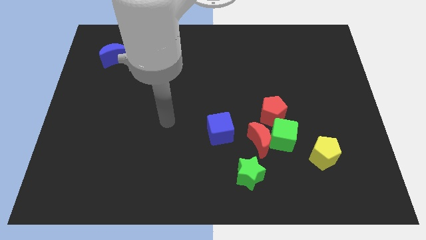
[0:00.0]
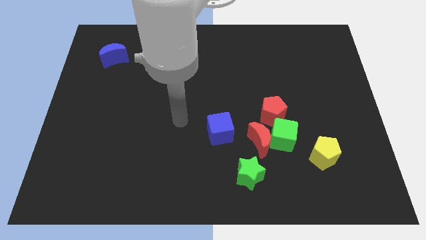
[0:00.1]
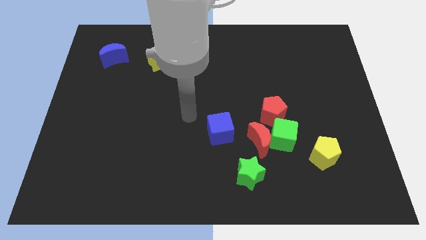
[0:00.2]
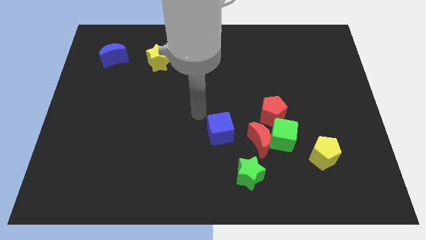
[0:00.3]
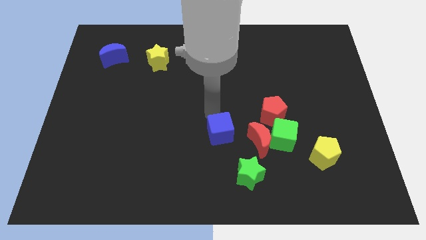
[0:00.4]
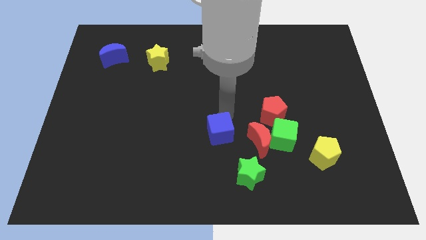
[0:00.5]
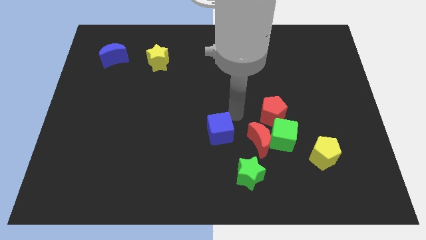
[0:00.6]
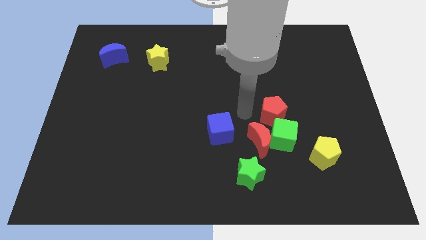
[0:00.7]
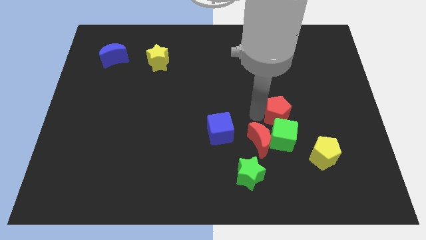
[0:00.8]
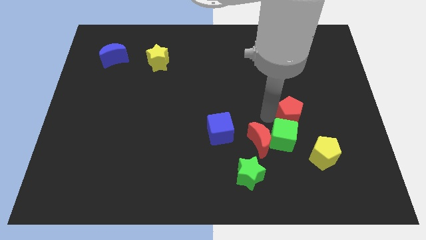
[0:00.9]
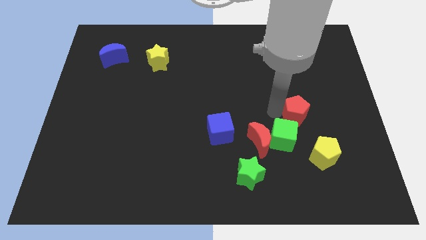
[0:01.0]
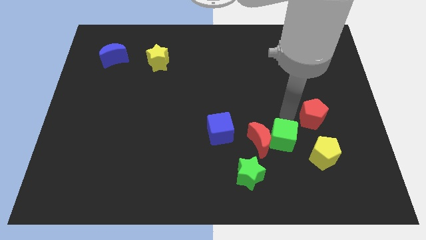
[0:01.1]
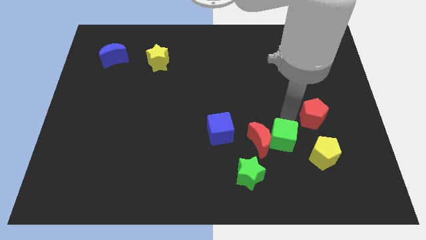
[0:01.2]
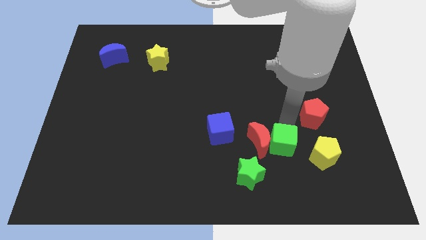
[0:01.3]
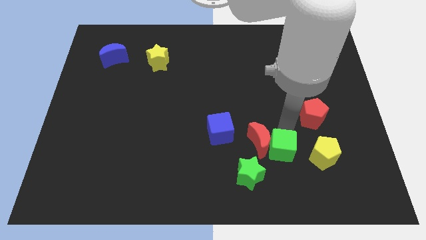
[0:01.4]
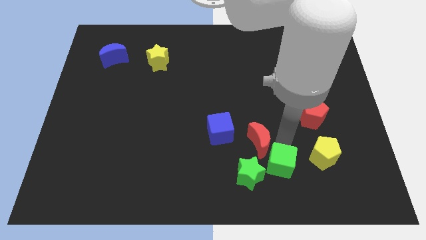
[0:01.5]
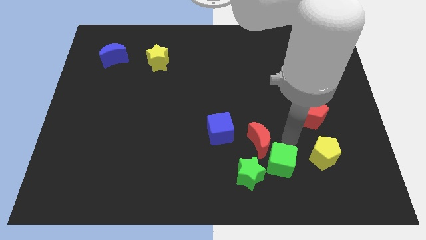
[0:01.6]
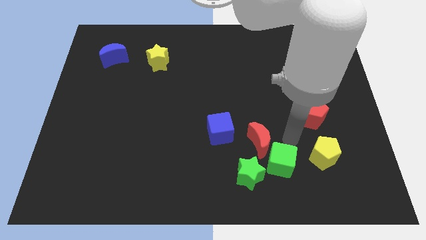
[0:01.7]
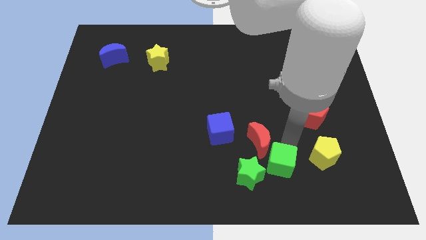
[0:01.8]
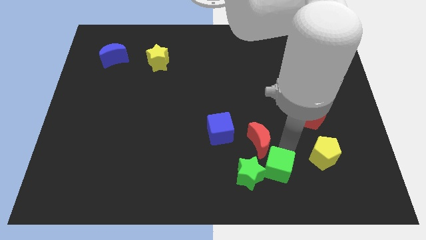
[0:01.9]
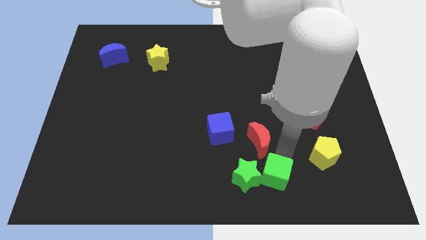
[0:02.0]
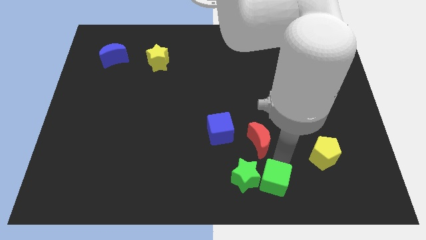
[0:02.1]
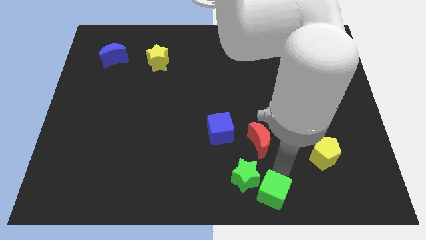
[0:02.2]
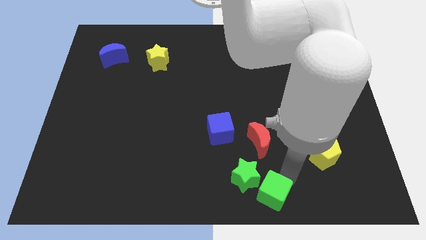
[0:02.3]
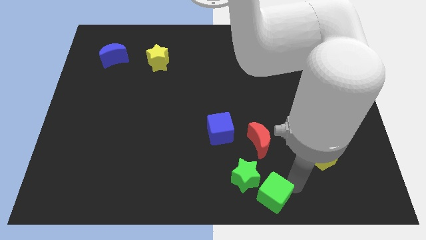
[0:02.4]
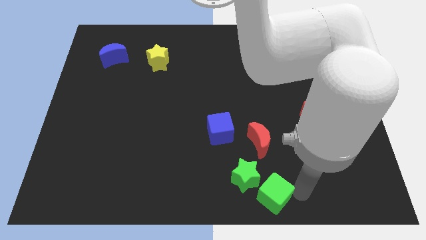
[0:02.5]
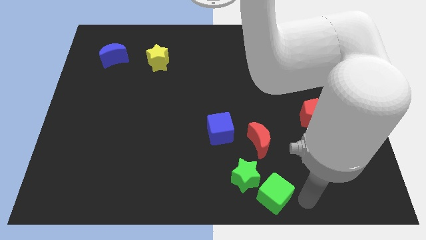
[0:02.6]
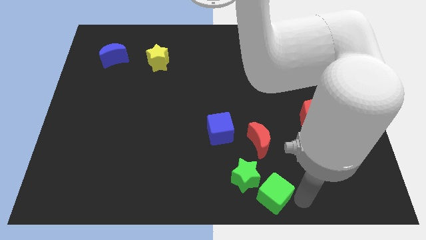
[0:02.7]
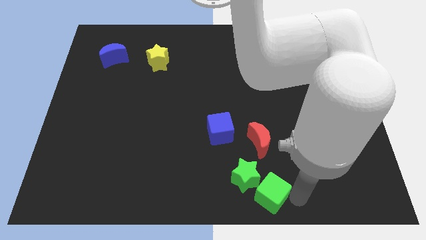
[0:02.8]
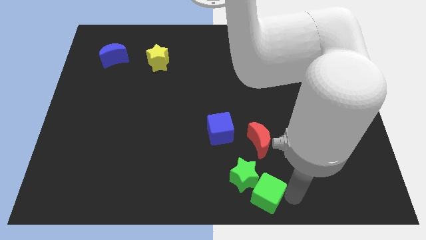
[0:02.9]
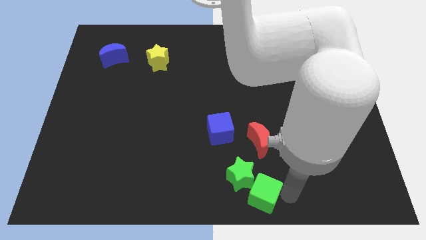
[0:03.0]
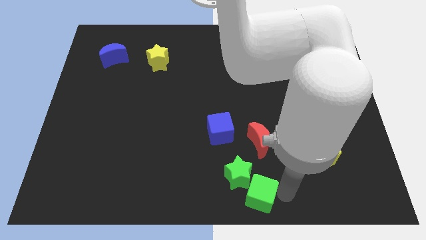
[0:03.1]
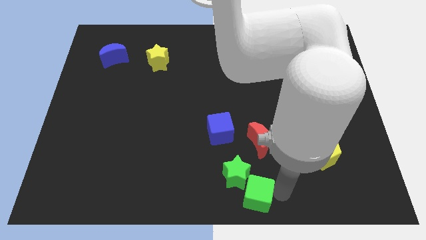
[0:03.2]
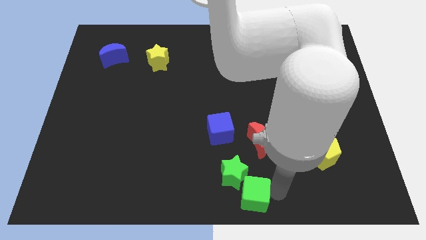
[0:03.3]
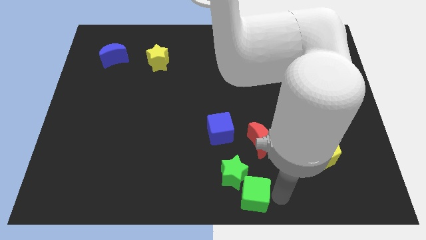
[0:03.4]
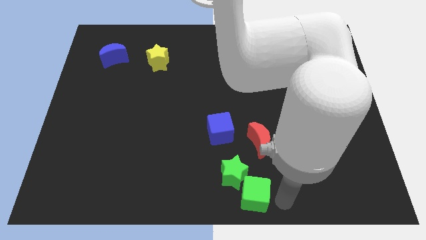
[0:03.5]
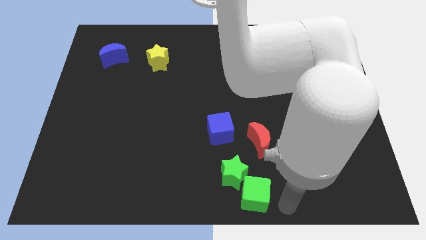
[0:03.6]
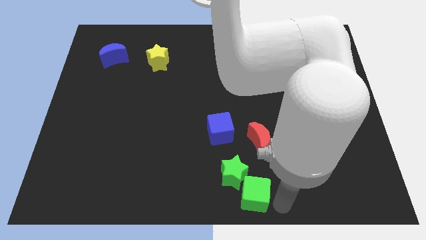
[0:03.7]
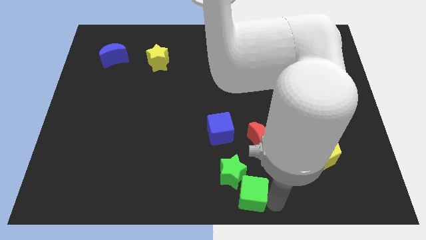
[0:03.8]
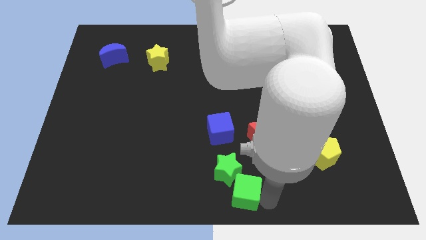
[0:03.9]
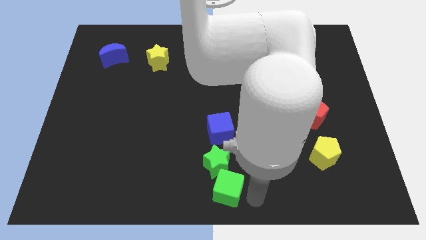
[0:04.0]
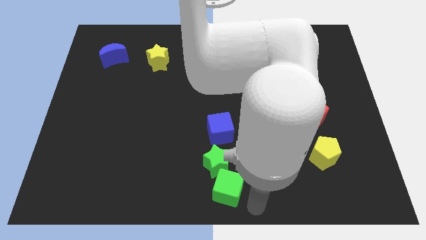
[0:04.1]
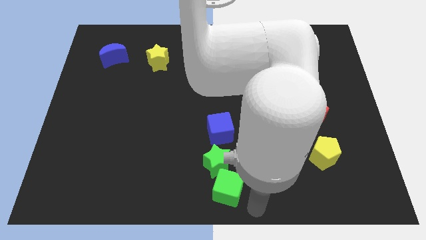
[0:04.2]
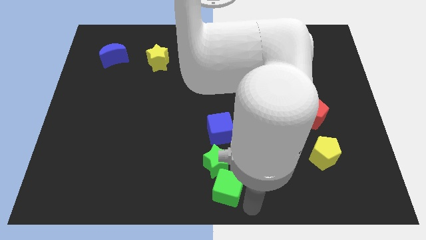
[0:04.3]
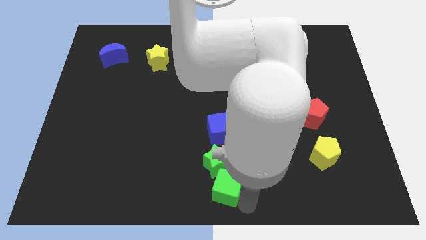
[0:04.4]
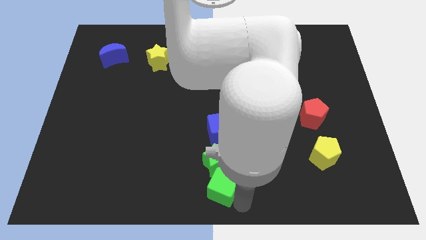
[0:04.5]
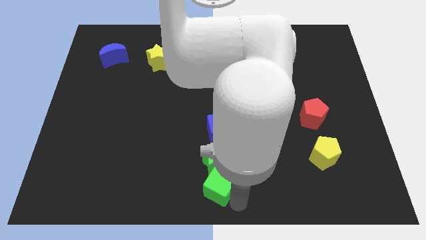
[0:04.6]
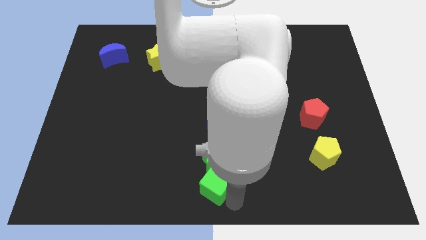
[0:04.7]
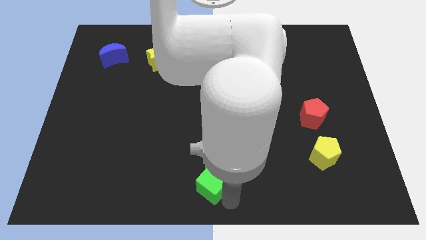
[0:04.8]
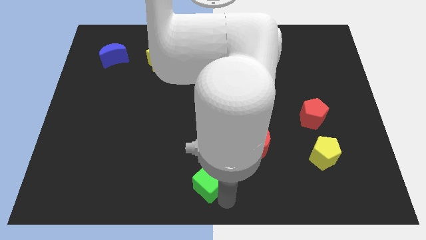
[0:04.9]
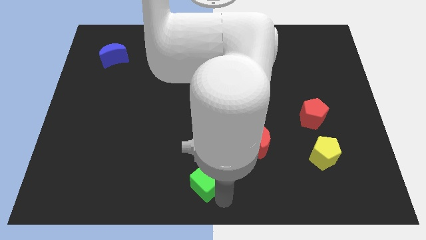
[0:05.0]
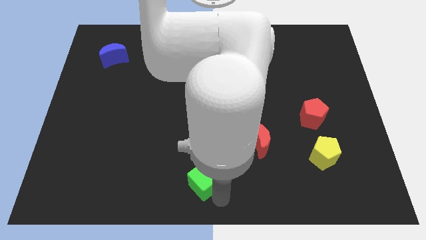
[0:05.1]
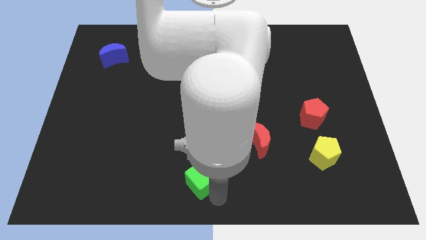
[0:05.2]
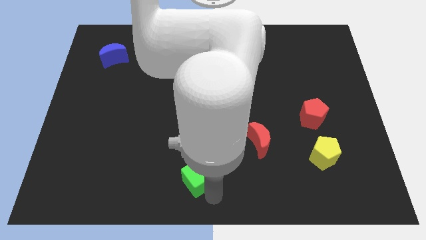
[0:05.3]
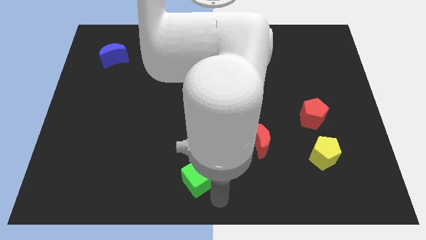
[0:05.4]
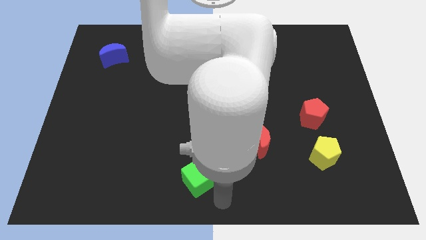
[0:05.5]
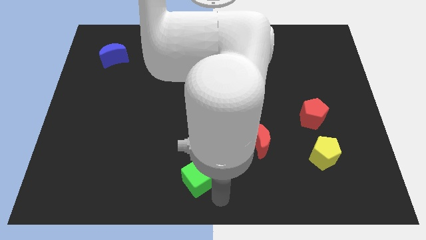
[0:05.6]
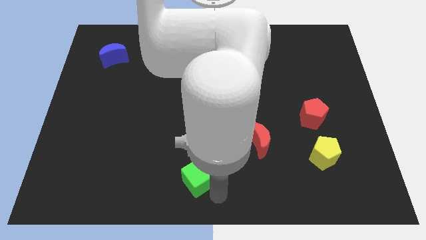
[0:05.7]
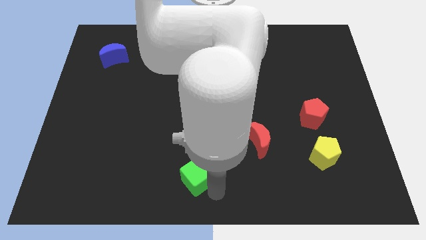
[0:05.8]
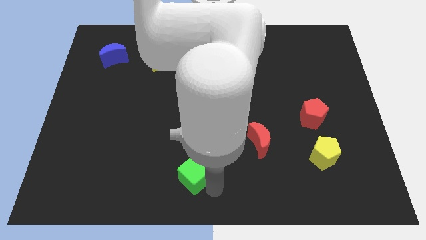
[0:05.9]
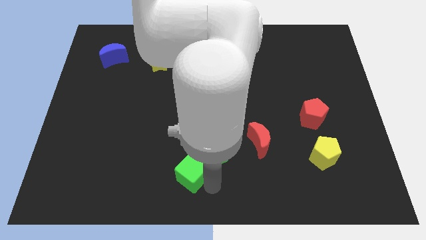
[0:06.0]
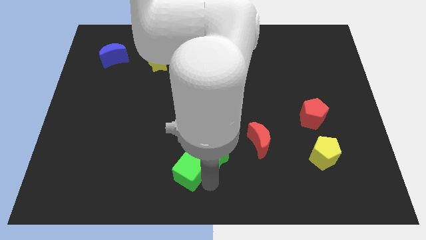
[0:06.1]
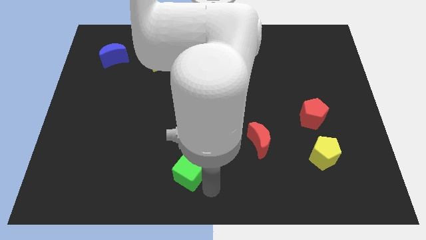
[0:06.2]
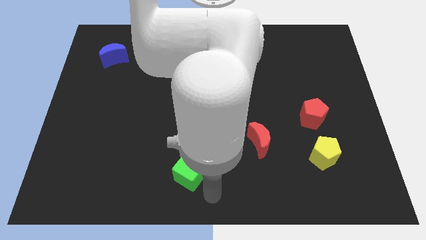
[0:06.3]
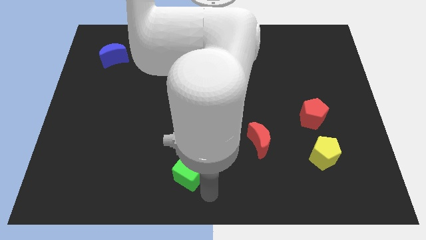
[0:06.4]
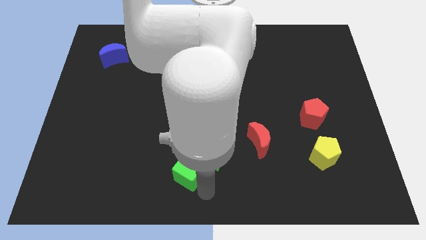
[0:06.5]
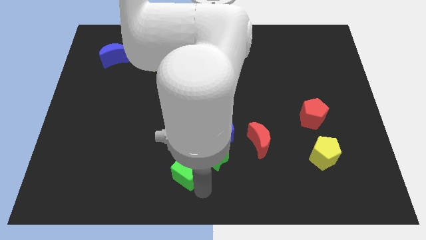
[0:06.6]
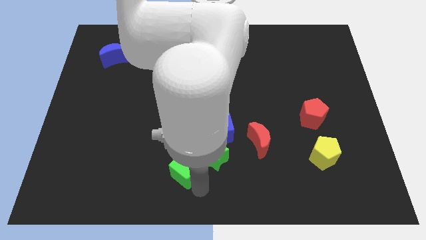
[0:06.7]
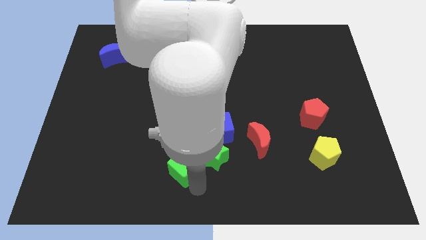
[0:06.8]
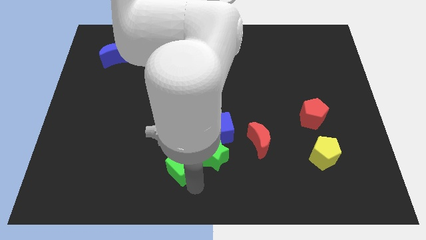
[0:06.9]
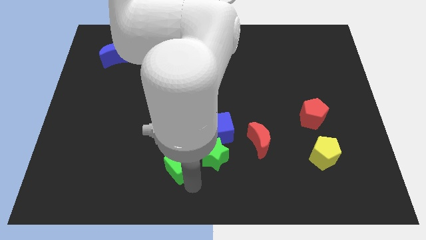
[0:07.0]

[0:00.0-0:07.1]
slide the green cube left

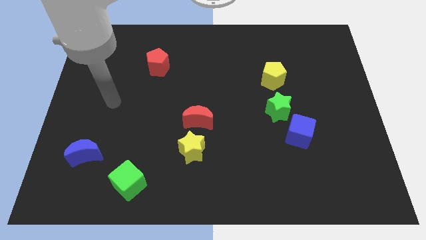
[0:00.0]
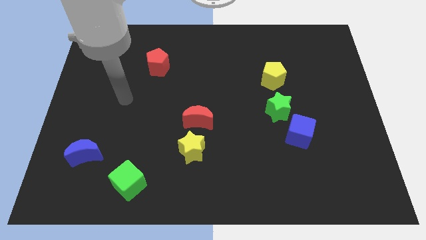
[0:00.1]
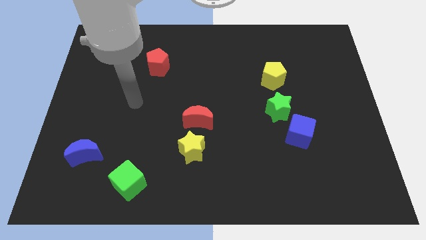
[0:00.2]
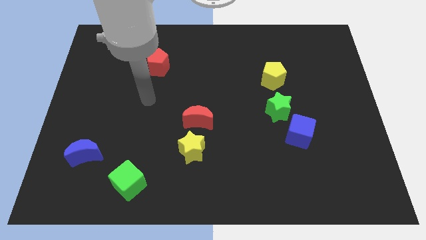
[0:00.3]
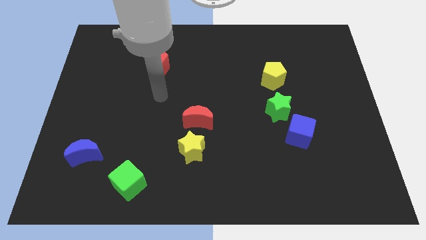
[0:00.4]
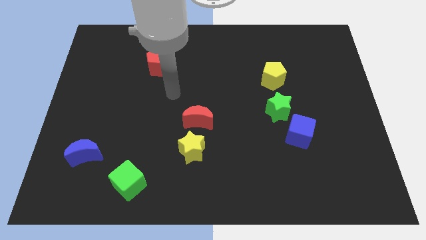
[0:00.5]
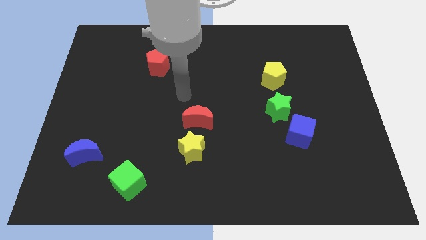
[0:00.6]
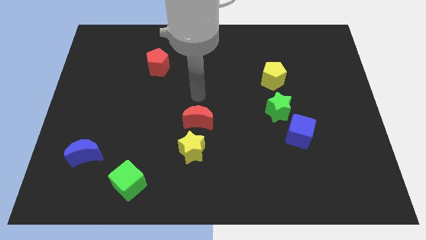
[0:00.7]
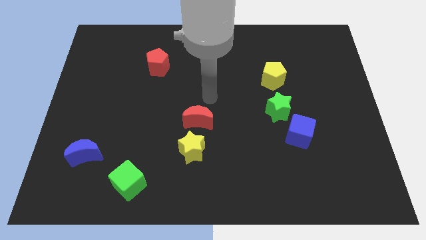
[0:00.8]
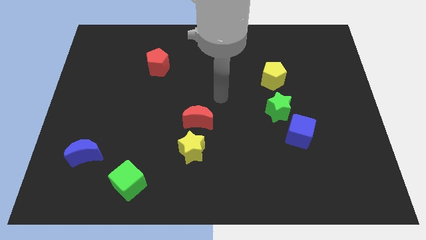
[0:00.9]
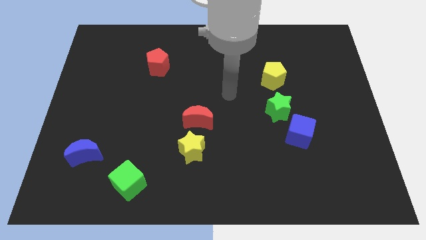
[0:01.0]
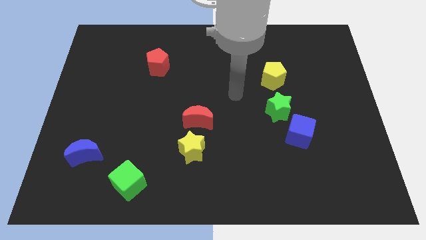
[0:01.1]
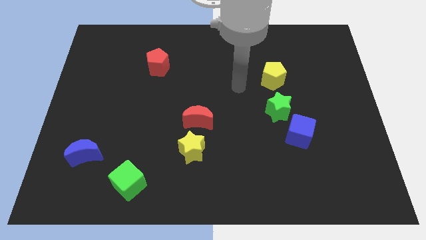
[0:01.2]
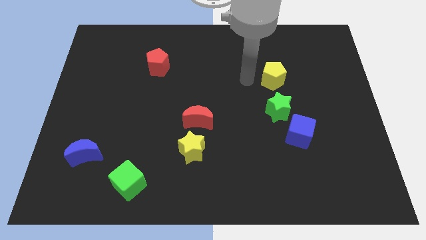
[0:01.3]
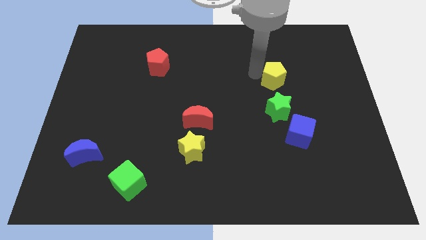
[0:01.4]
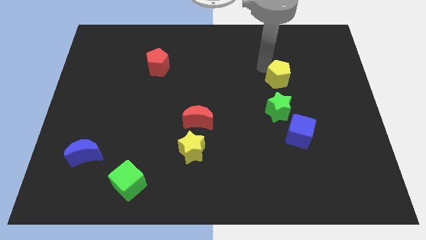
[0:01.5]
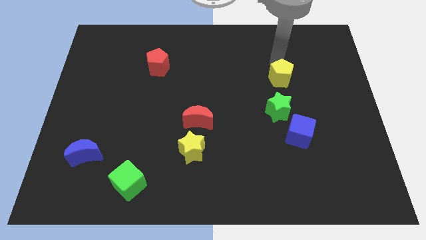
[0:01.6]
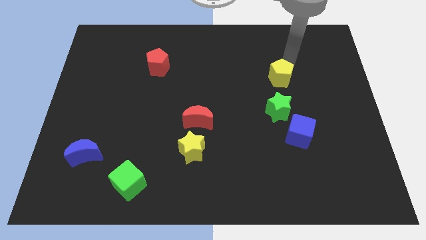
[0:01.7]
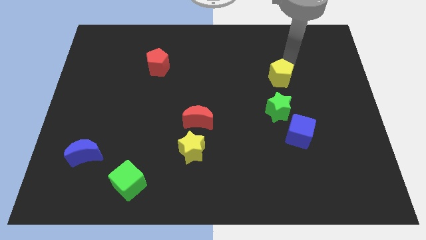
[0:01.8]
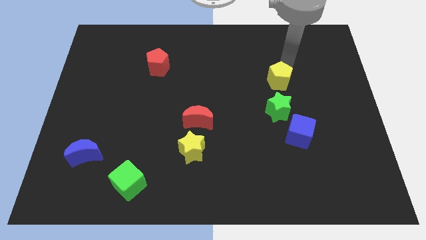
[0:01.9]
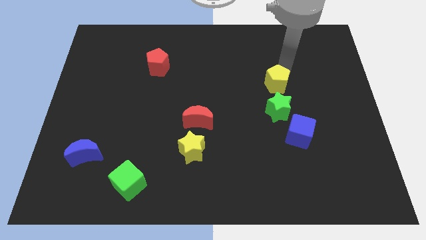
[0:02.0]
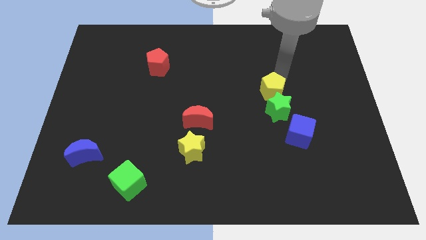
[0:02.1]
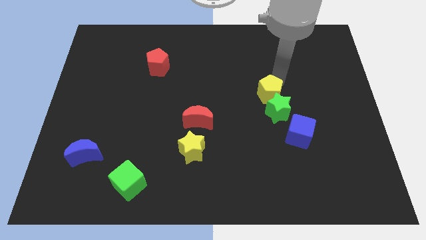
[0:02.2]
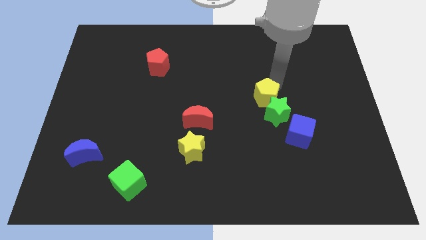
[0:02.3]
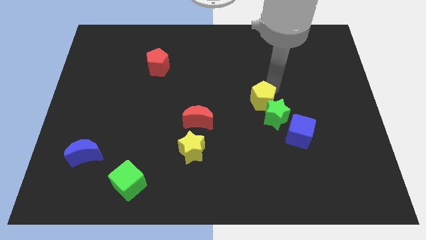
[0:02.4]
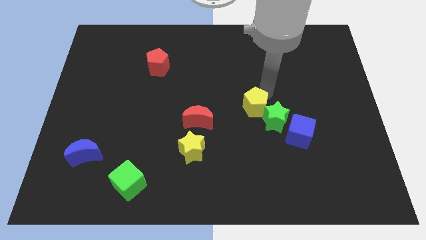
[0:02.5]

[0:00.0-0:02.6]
push the yellow pentagon a little bit downwards
